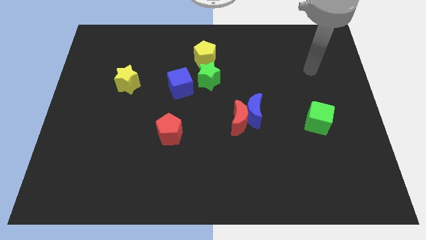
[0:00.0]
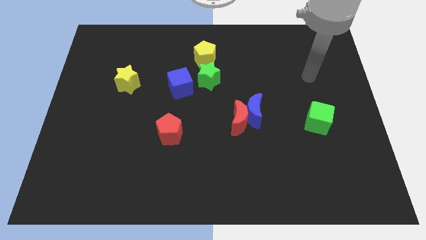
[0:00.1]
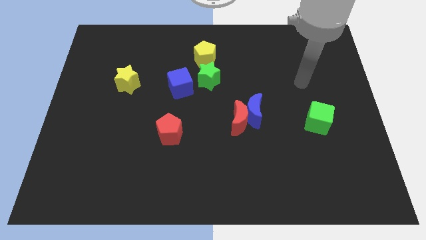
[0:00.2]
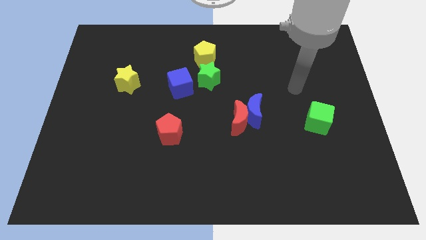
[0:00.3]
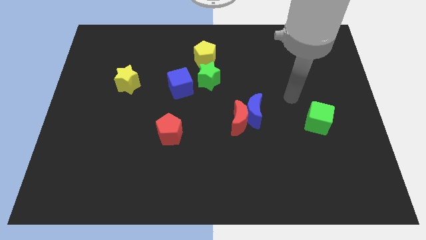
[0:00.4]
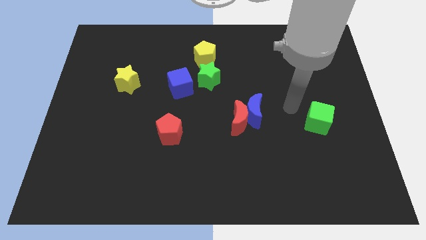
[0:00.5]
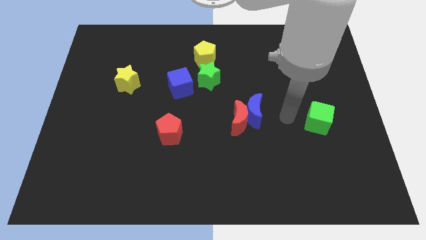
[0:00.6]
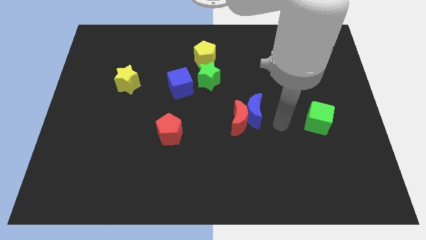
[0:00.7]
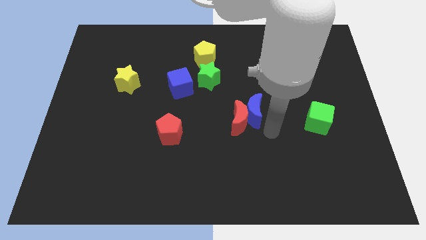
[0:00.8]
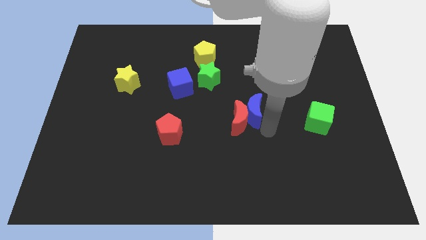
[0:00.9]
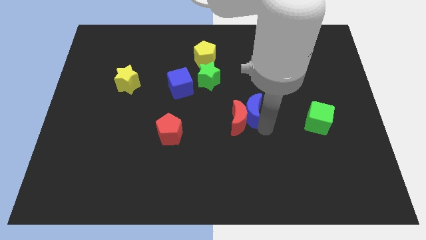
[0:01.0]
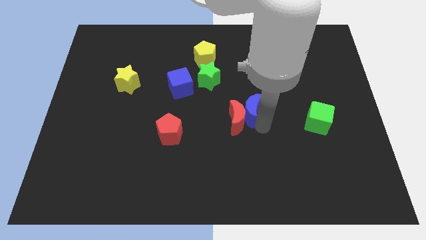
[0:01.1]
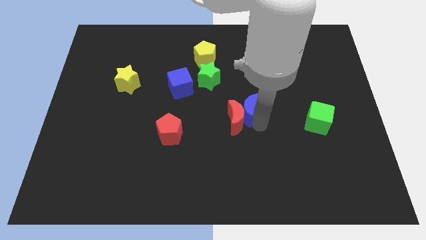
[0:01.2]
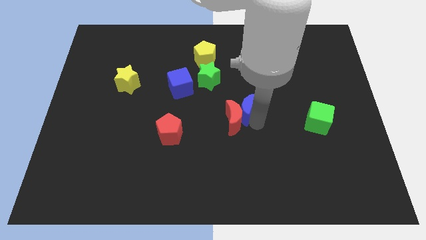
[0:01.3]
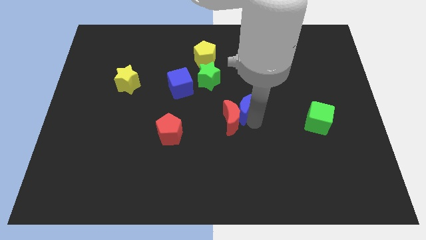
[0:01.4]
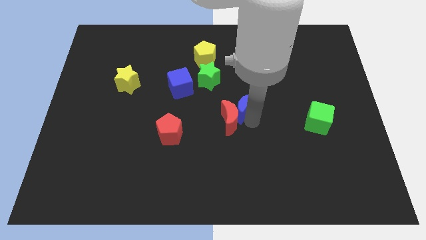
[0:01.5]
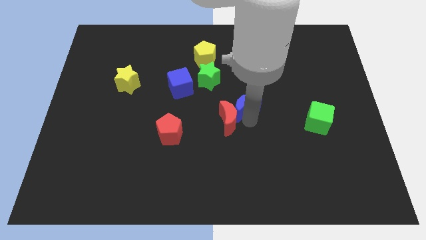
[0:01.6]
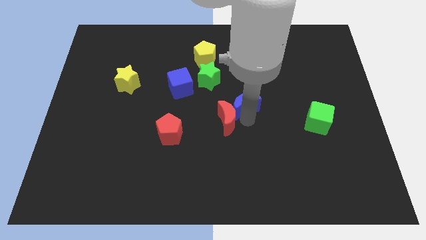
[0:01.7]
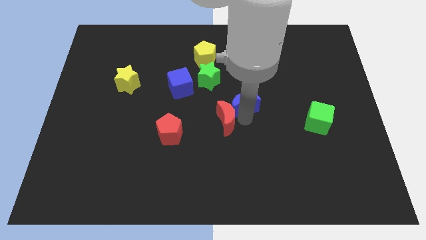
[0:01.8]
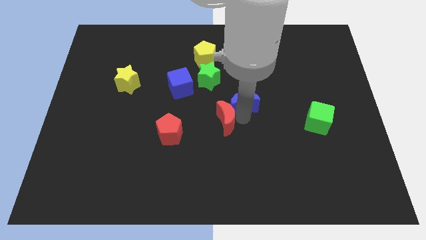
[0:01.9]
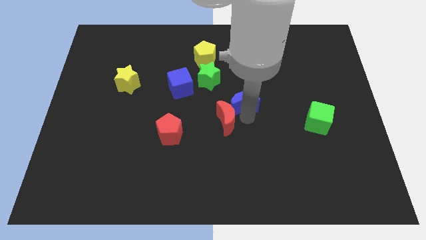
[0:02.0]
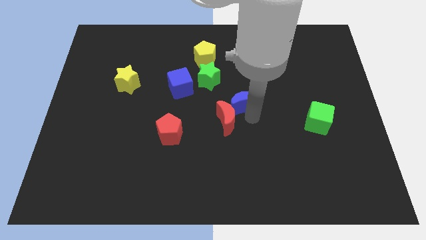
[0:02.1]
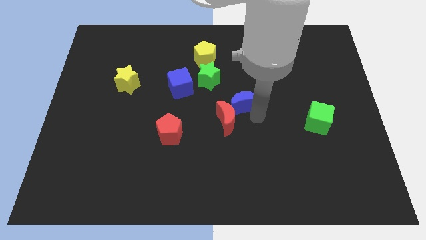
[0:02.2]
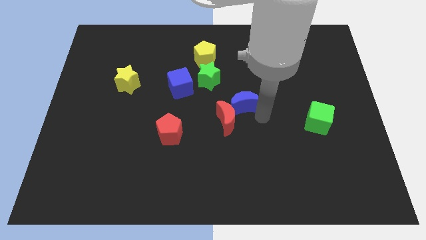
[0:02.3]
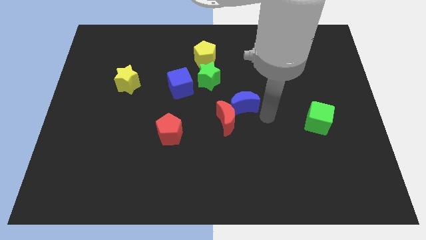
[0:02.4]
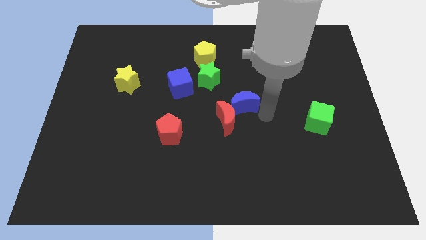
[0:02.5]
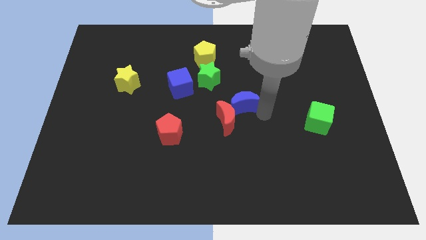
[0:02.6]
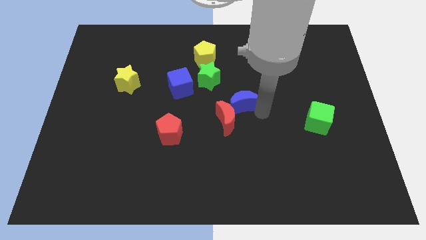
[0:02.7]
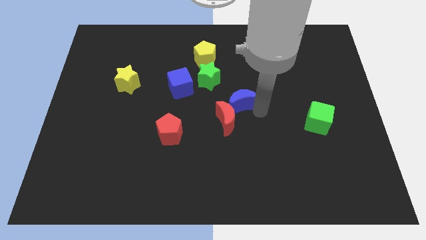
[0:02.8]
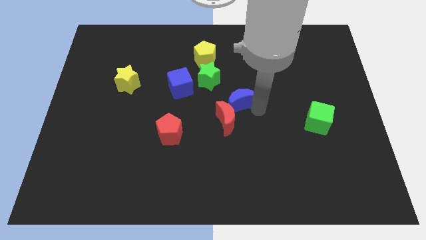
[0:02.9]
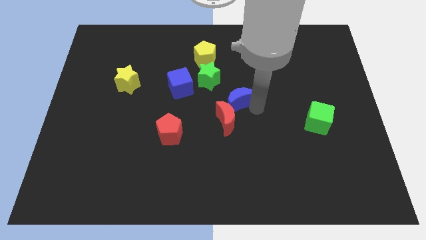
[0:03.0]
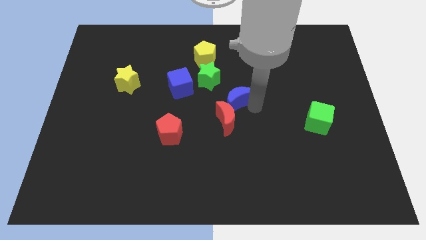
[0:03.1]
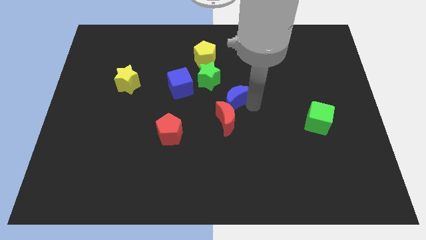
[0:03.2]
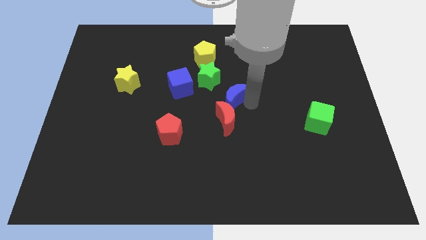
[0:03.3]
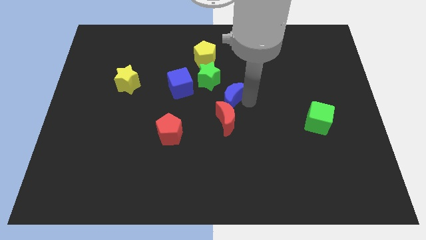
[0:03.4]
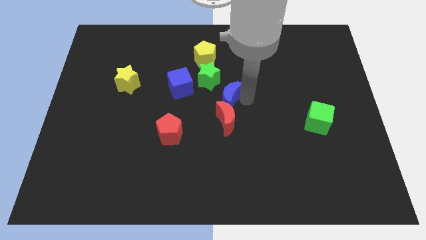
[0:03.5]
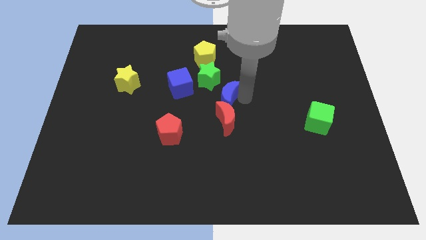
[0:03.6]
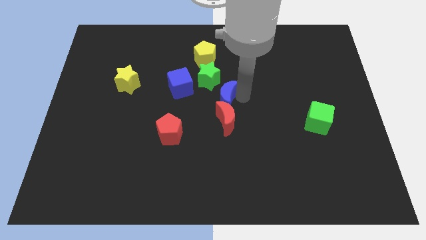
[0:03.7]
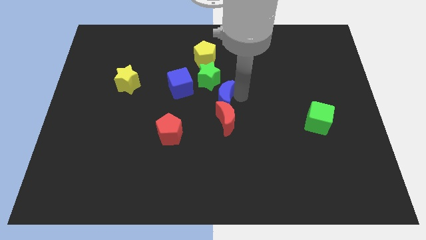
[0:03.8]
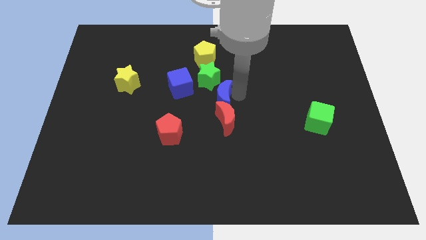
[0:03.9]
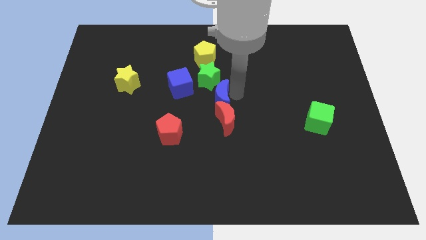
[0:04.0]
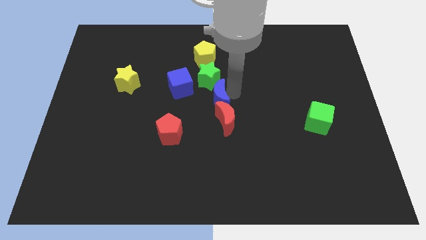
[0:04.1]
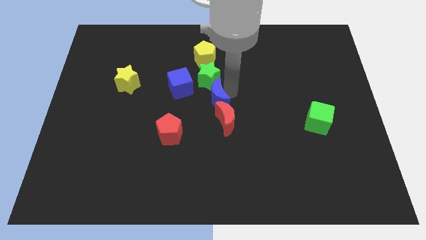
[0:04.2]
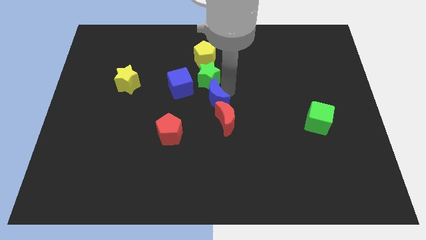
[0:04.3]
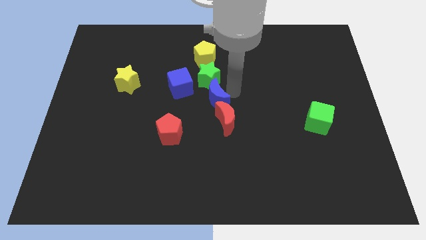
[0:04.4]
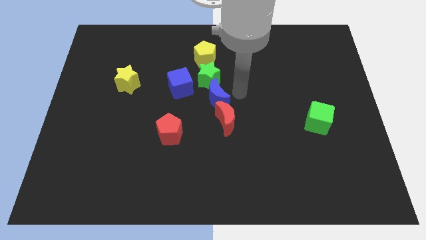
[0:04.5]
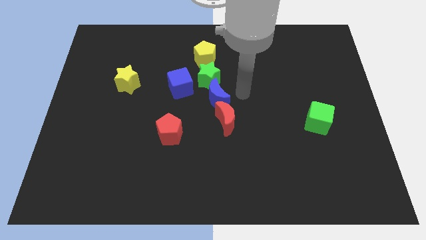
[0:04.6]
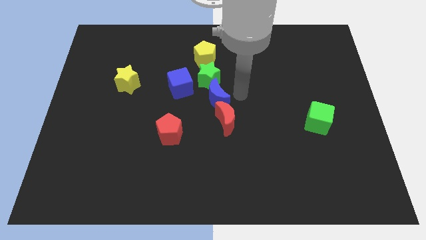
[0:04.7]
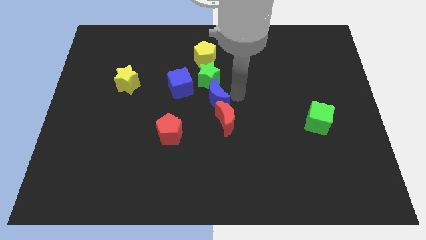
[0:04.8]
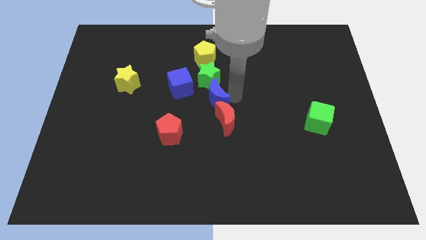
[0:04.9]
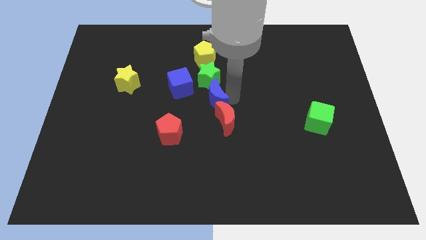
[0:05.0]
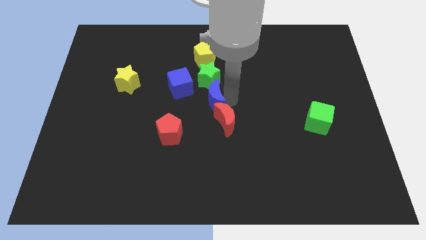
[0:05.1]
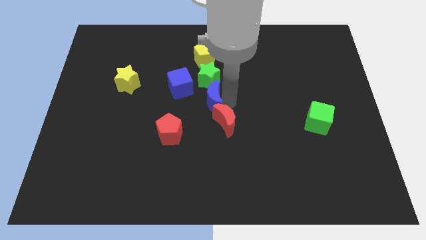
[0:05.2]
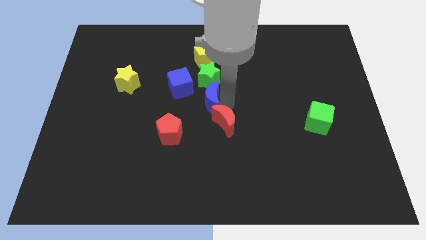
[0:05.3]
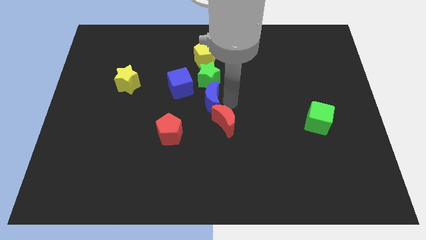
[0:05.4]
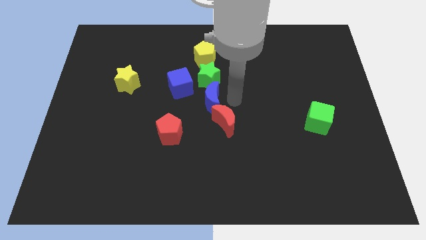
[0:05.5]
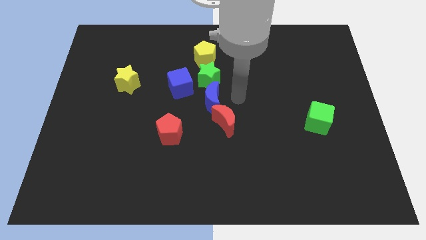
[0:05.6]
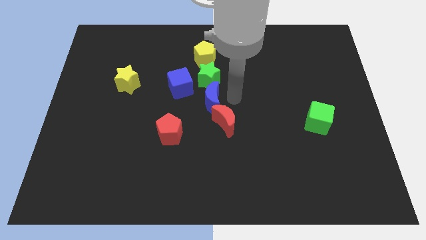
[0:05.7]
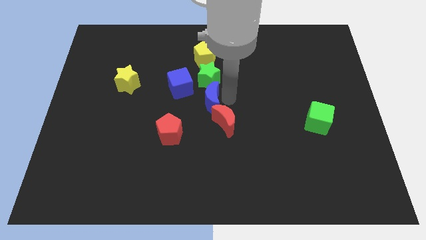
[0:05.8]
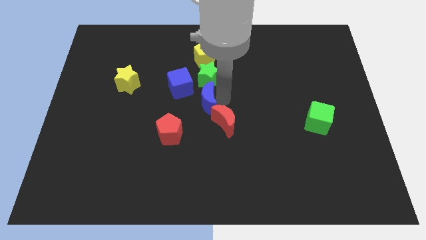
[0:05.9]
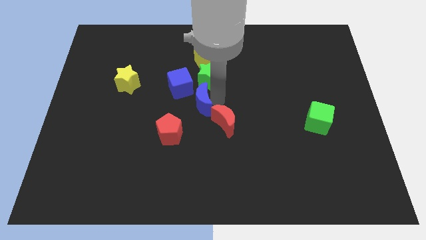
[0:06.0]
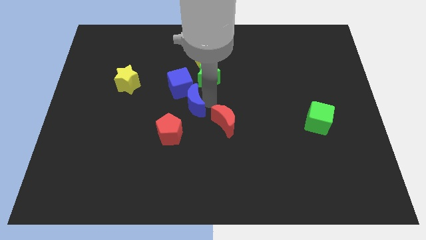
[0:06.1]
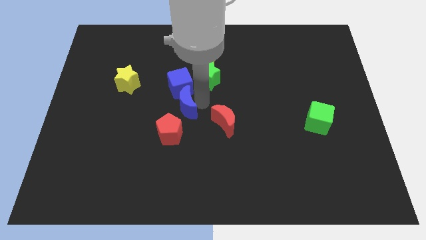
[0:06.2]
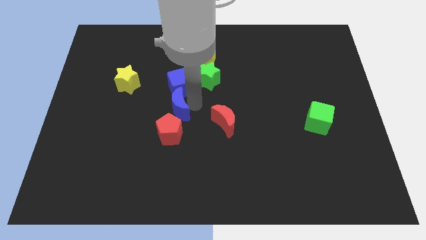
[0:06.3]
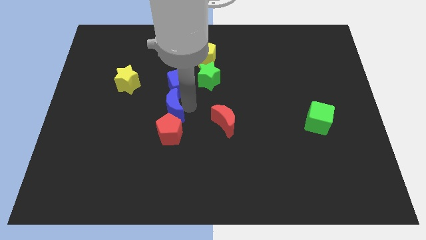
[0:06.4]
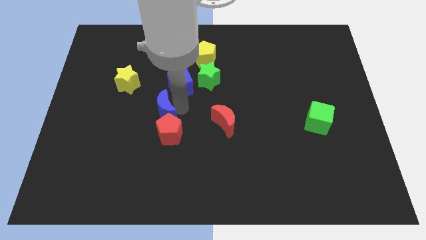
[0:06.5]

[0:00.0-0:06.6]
move the blue moon left

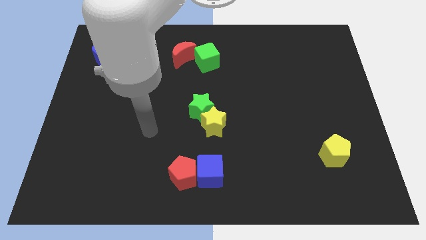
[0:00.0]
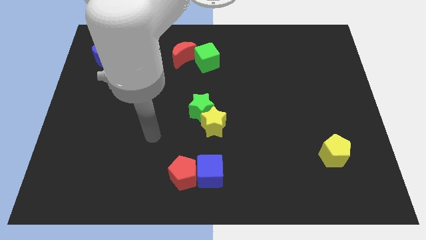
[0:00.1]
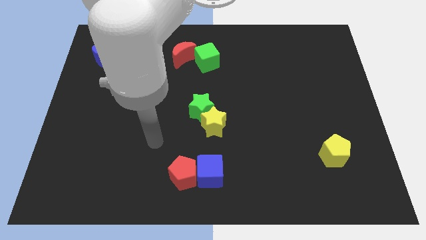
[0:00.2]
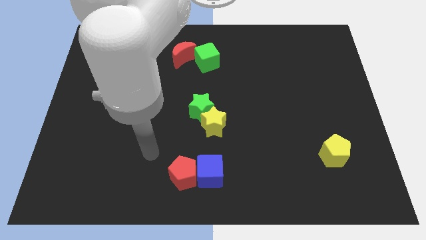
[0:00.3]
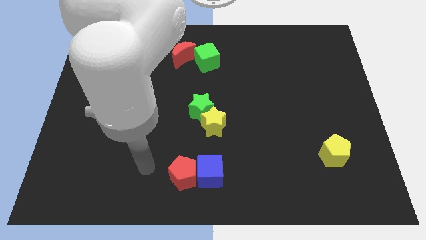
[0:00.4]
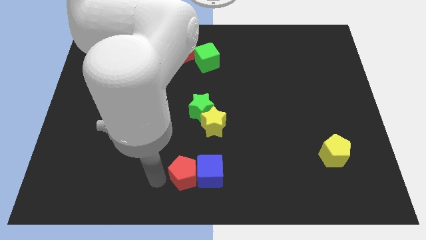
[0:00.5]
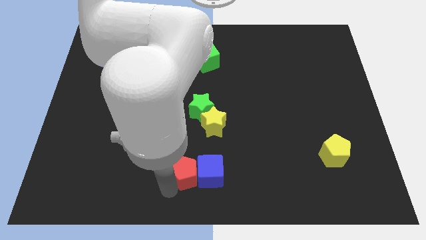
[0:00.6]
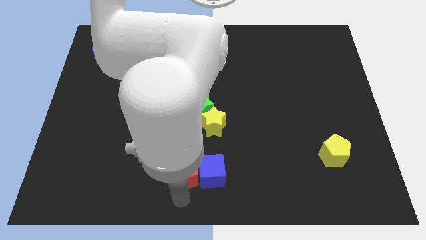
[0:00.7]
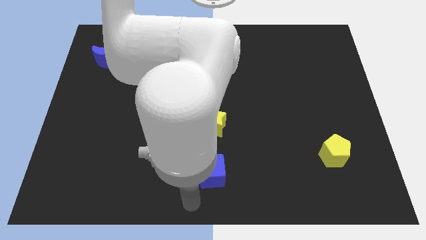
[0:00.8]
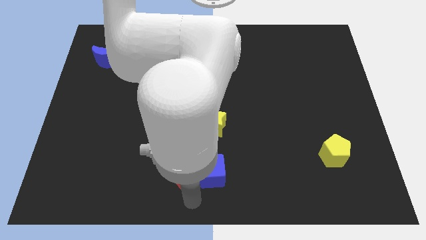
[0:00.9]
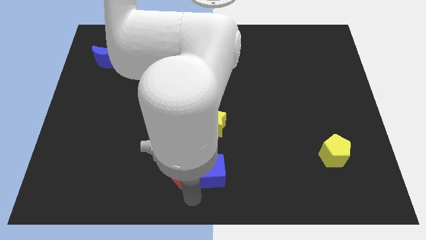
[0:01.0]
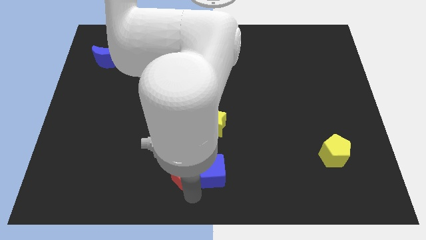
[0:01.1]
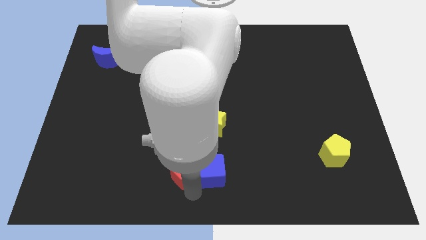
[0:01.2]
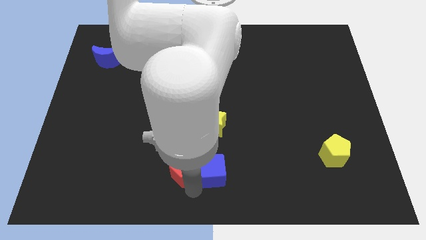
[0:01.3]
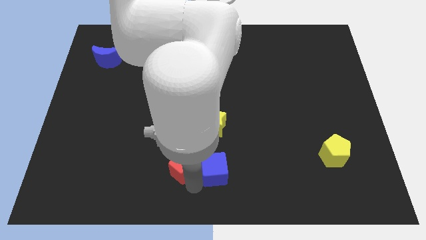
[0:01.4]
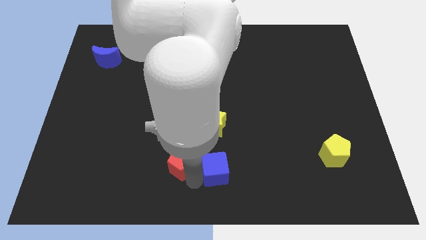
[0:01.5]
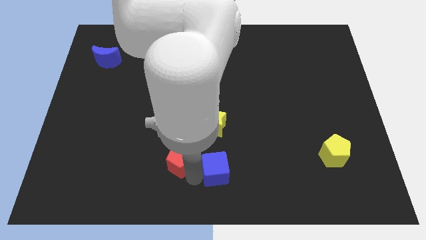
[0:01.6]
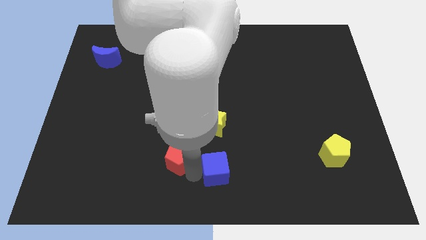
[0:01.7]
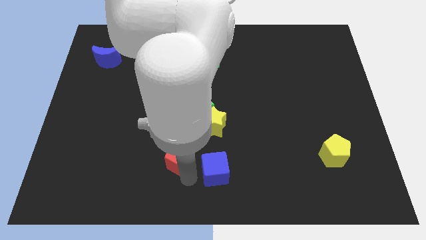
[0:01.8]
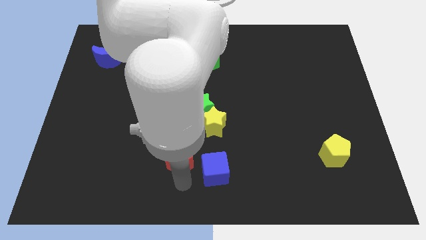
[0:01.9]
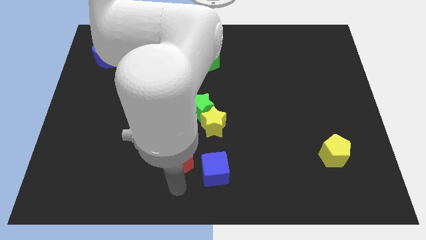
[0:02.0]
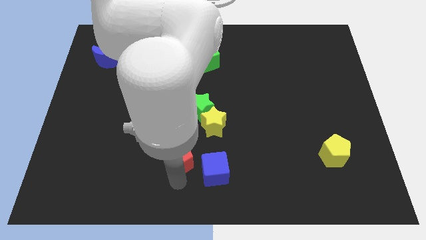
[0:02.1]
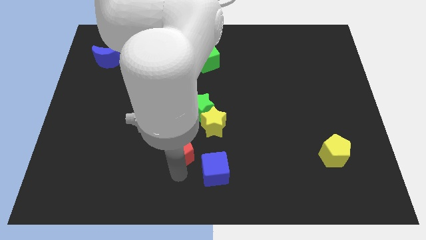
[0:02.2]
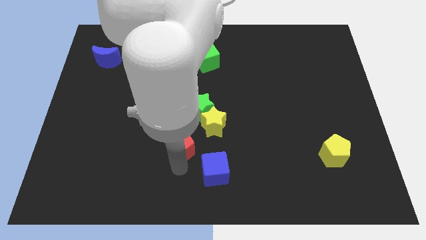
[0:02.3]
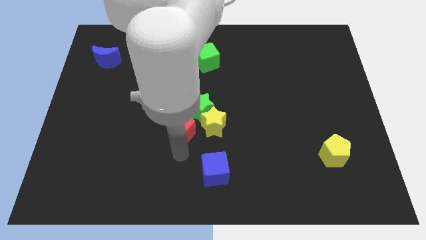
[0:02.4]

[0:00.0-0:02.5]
move the red pentagon up a little
